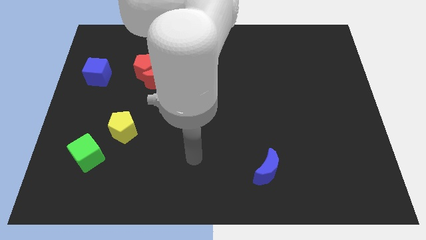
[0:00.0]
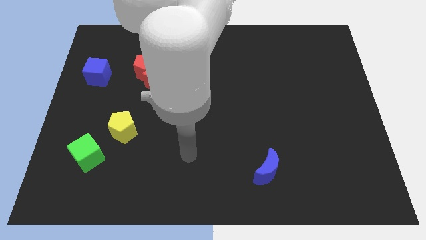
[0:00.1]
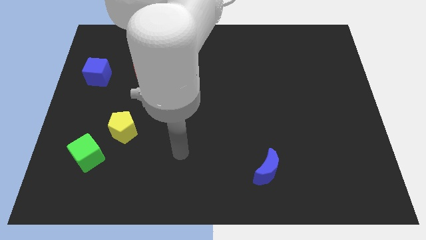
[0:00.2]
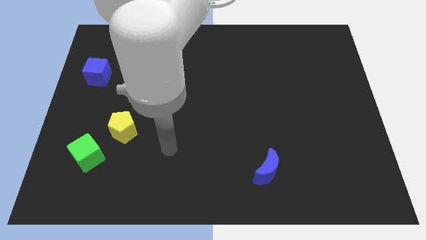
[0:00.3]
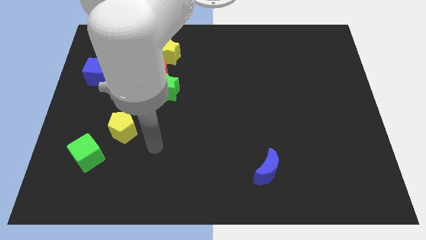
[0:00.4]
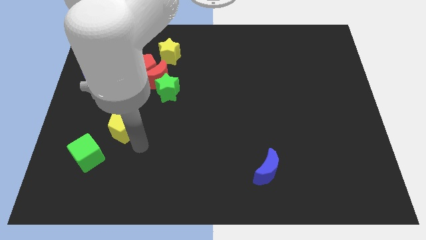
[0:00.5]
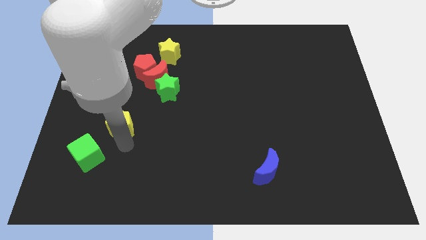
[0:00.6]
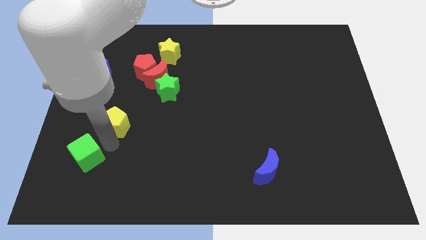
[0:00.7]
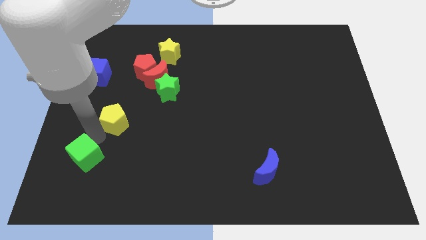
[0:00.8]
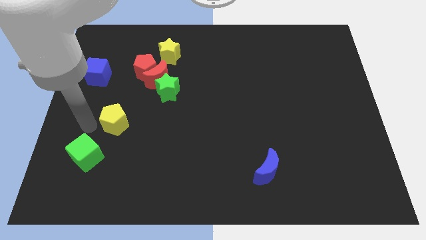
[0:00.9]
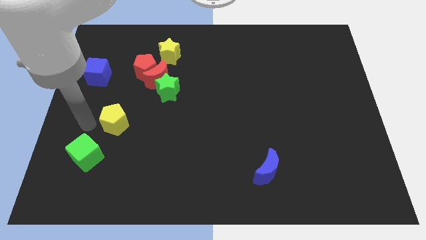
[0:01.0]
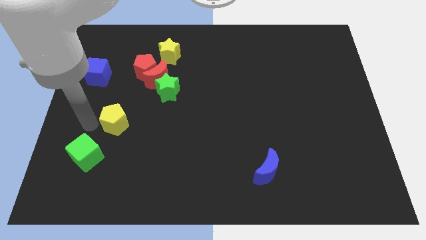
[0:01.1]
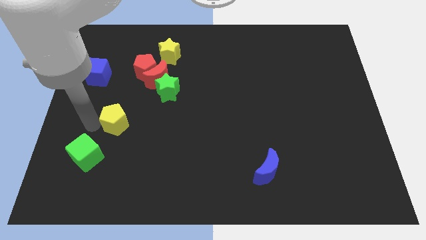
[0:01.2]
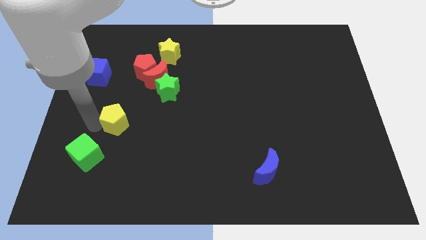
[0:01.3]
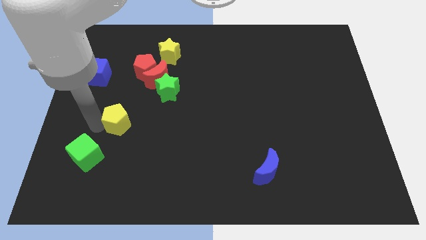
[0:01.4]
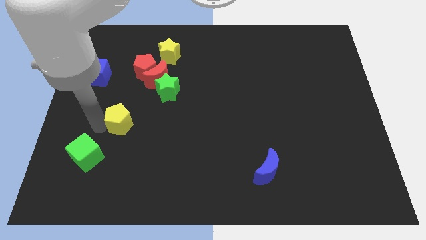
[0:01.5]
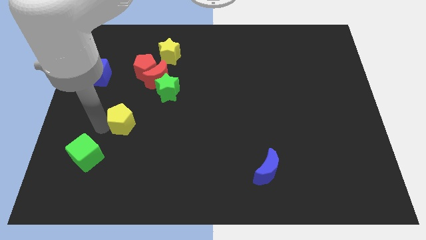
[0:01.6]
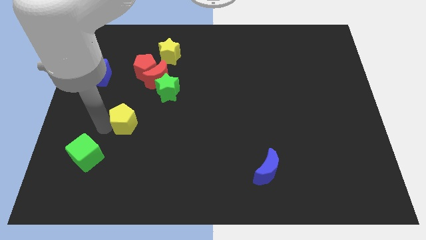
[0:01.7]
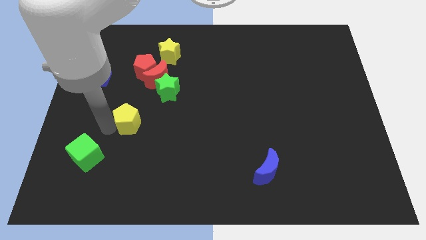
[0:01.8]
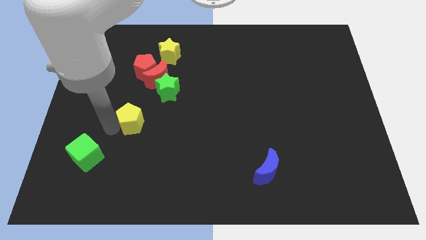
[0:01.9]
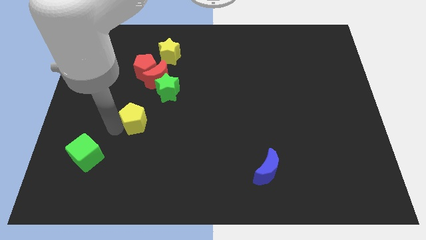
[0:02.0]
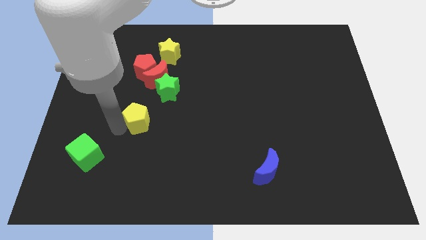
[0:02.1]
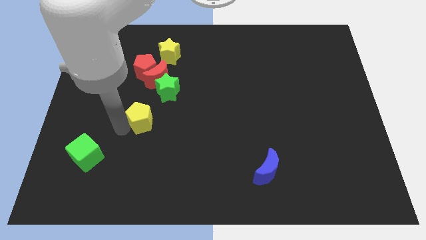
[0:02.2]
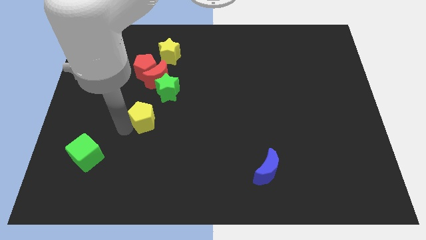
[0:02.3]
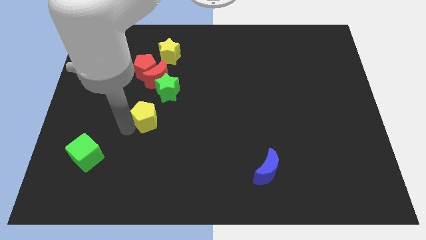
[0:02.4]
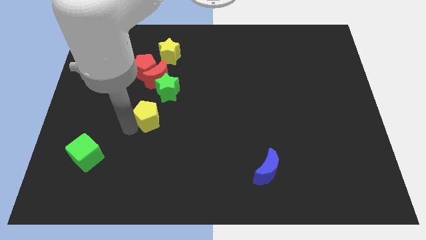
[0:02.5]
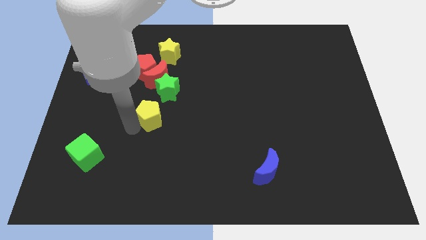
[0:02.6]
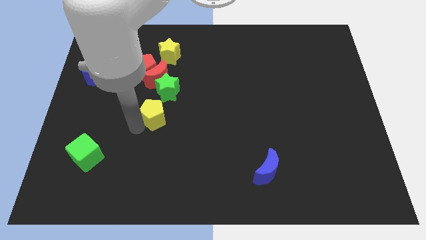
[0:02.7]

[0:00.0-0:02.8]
move the yellow pentagon up and to the right diagonally a little

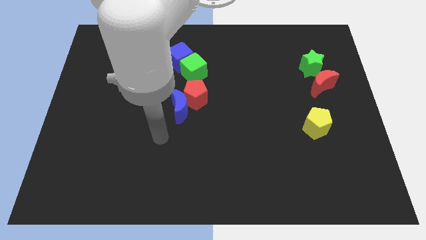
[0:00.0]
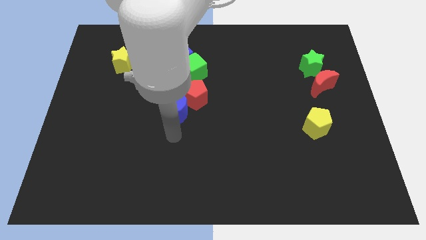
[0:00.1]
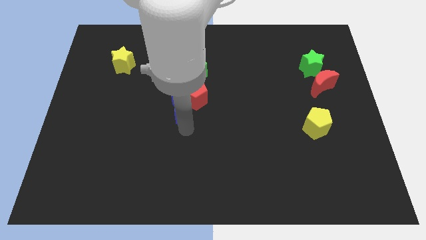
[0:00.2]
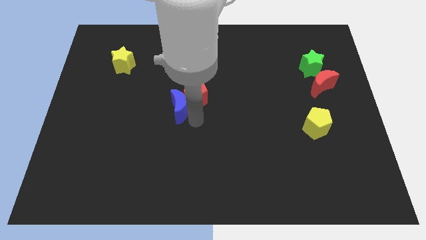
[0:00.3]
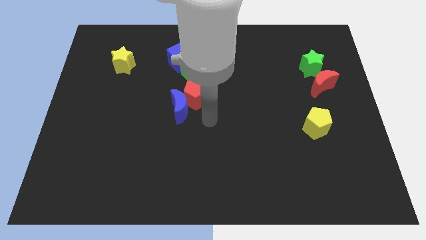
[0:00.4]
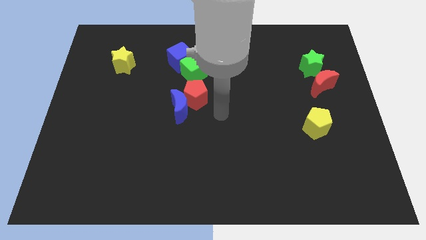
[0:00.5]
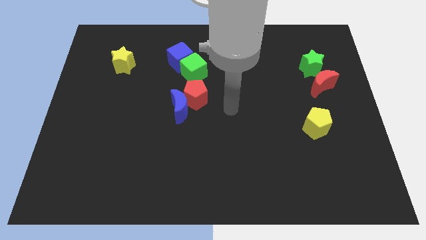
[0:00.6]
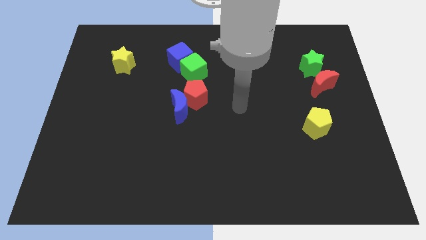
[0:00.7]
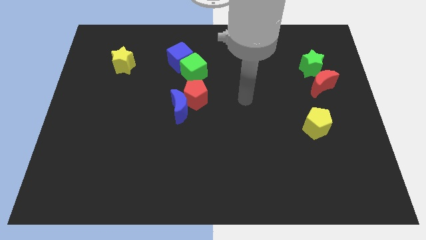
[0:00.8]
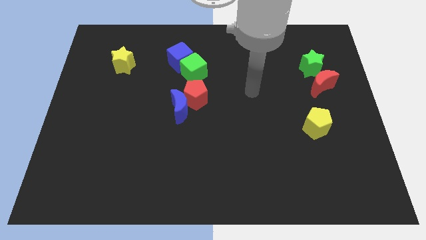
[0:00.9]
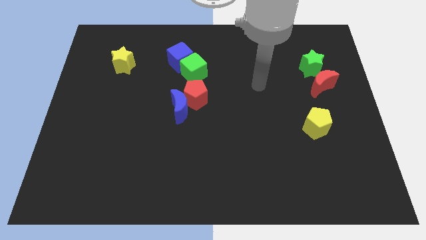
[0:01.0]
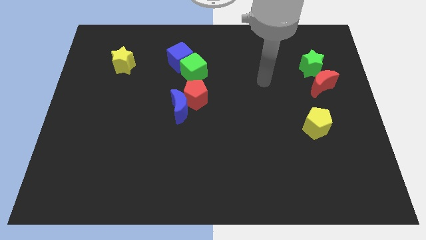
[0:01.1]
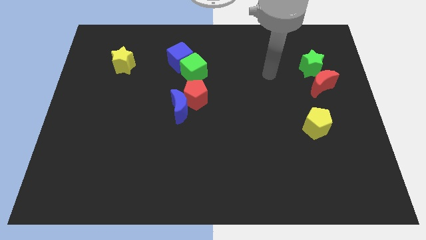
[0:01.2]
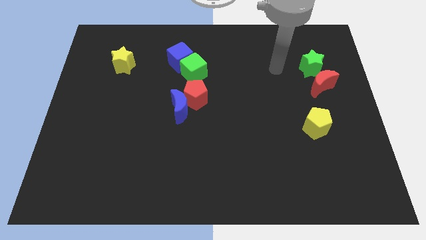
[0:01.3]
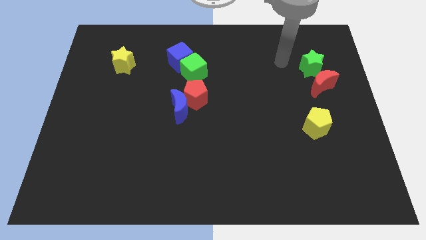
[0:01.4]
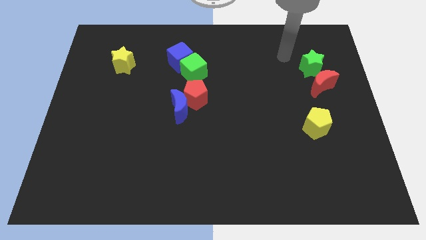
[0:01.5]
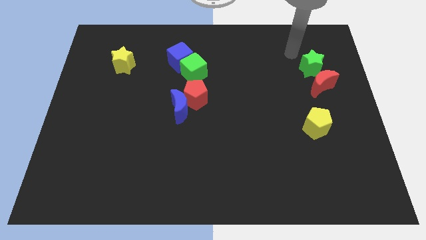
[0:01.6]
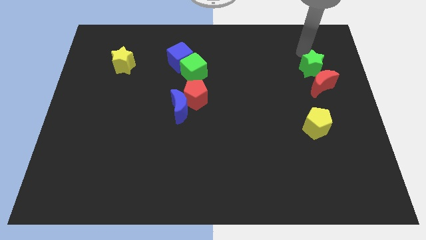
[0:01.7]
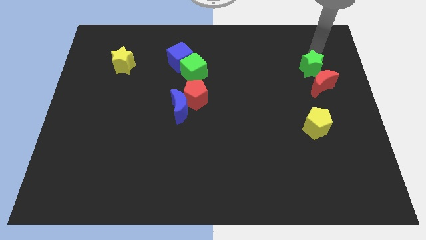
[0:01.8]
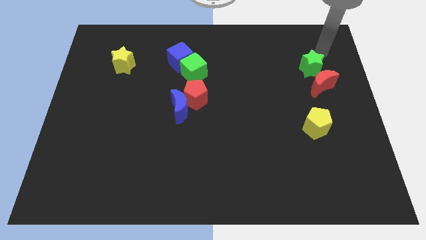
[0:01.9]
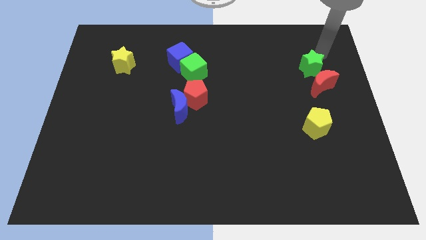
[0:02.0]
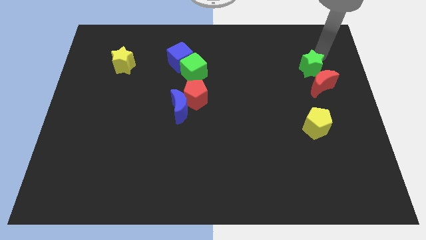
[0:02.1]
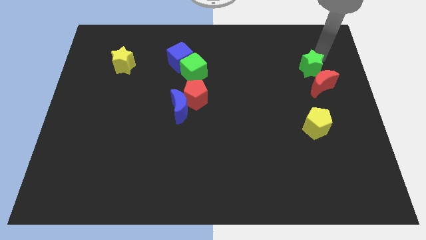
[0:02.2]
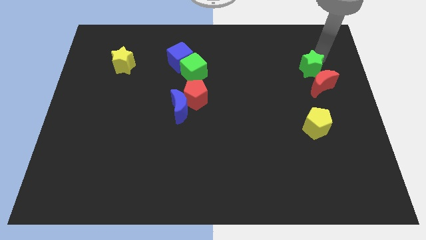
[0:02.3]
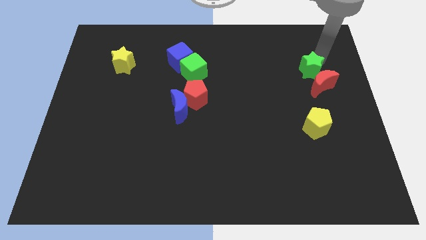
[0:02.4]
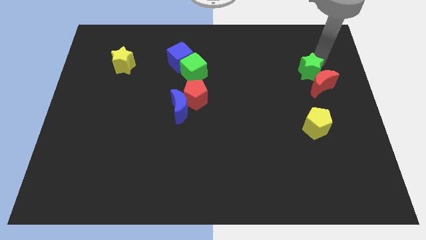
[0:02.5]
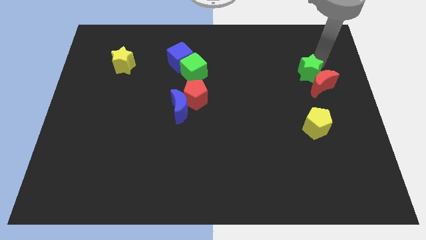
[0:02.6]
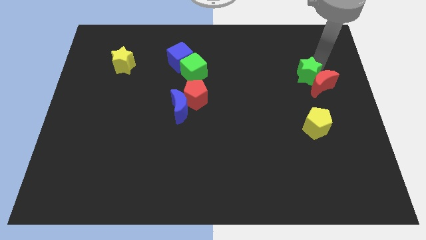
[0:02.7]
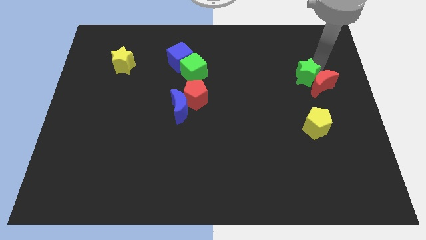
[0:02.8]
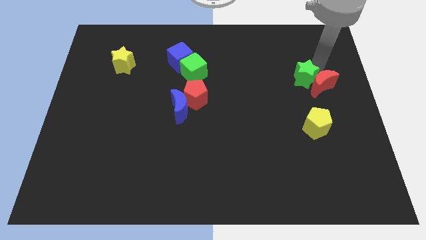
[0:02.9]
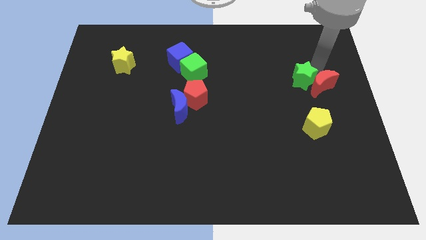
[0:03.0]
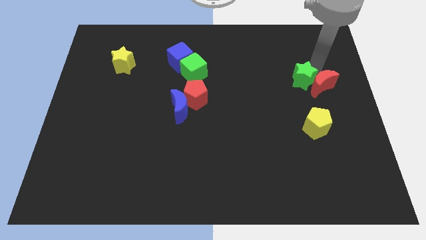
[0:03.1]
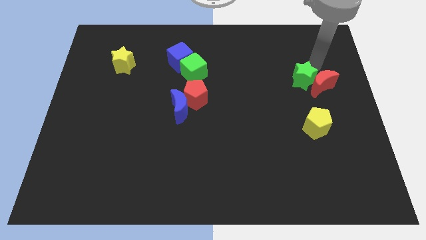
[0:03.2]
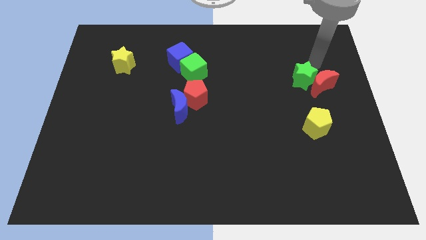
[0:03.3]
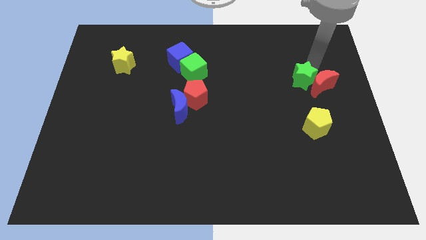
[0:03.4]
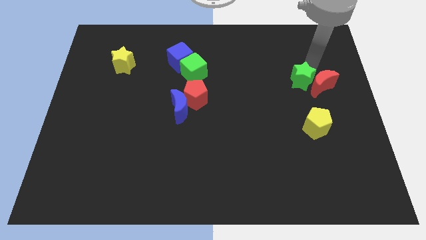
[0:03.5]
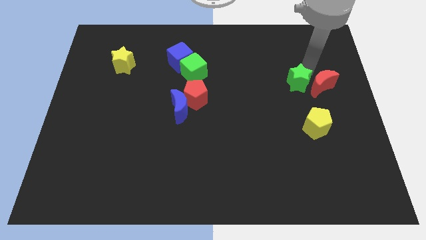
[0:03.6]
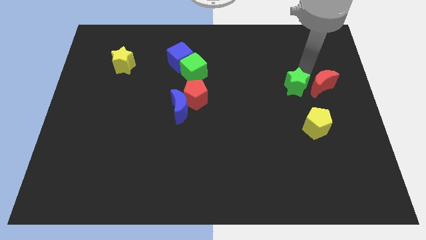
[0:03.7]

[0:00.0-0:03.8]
push the green star downwards and then left a little

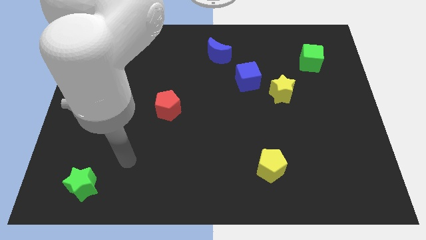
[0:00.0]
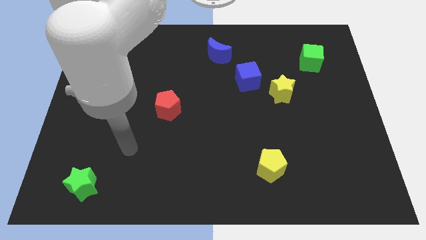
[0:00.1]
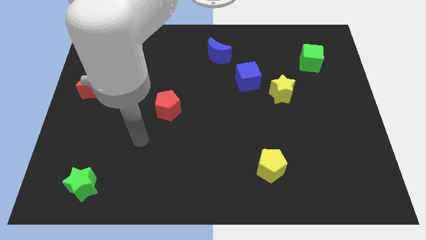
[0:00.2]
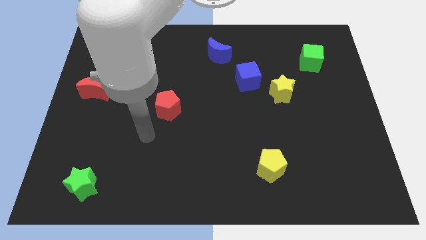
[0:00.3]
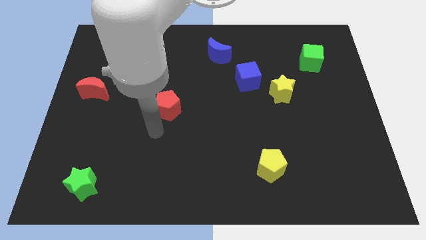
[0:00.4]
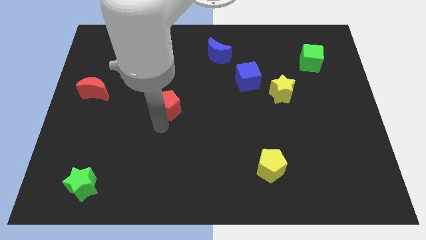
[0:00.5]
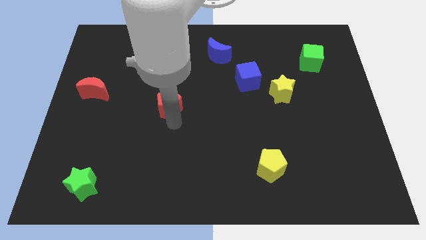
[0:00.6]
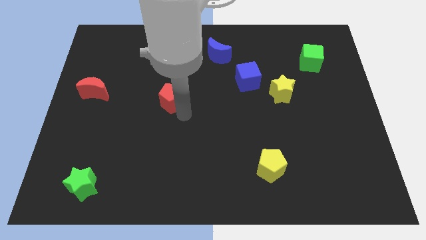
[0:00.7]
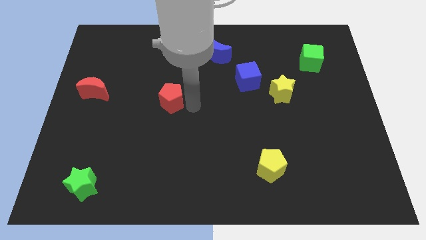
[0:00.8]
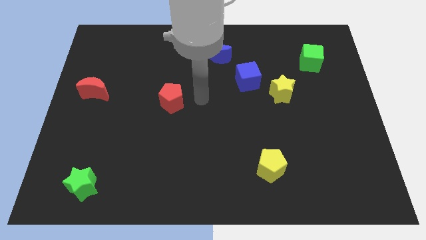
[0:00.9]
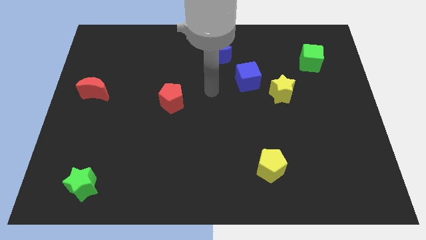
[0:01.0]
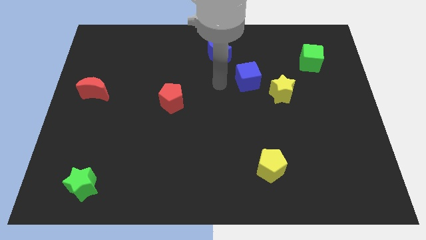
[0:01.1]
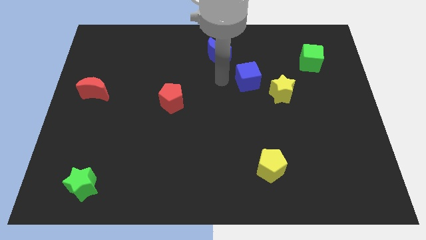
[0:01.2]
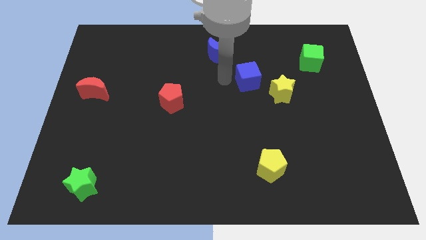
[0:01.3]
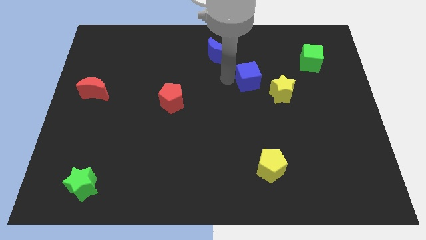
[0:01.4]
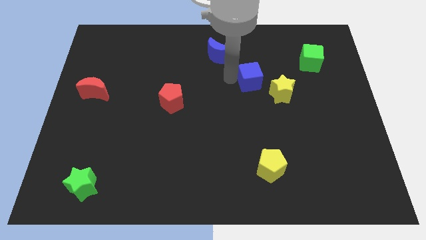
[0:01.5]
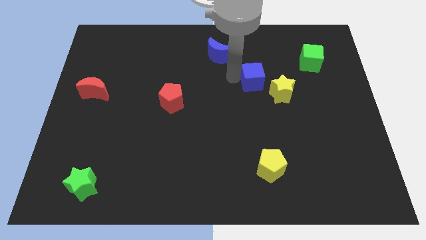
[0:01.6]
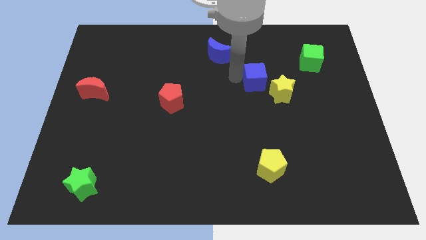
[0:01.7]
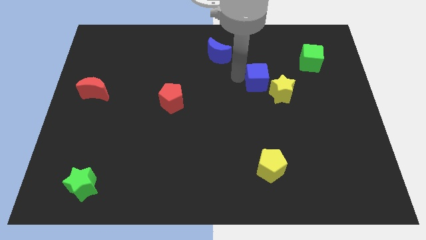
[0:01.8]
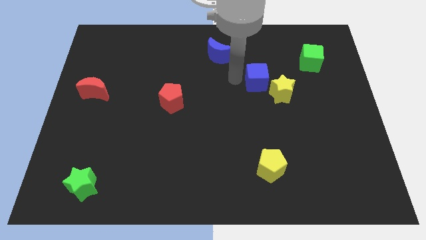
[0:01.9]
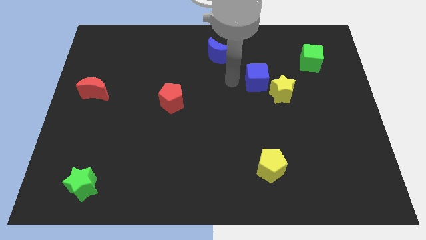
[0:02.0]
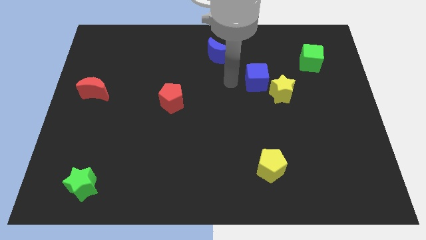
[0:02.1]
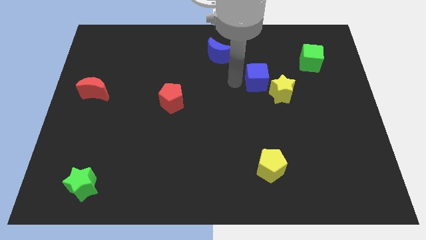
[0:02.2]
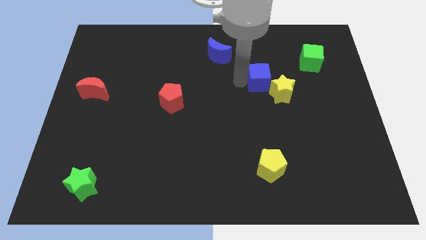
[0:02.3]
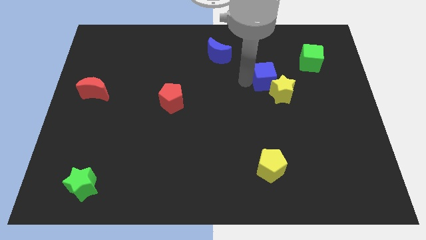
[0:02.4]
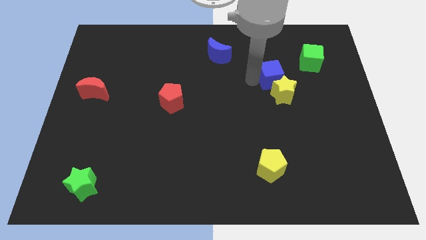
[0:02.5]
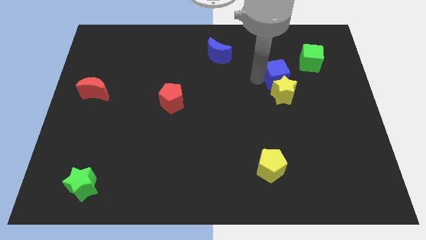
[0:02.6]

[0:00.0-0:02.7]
push the blue cube right slightly
